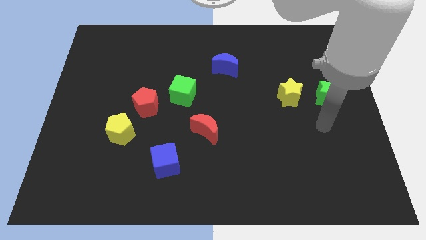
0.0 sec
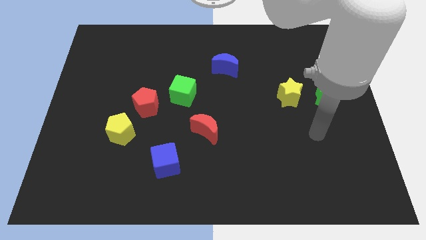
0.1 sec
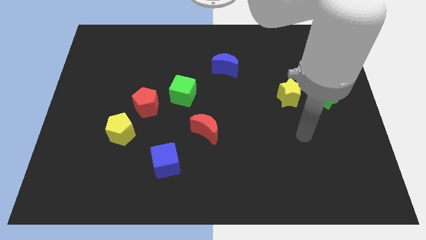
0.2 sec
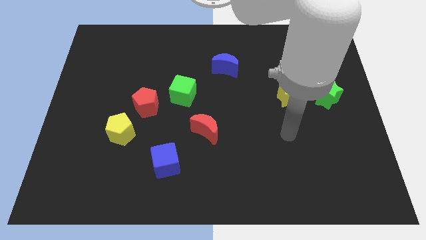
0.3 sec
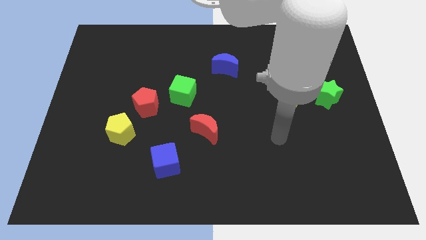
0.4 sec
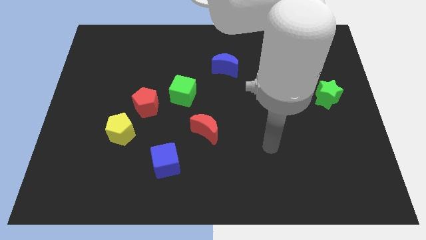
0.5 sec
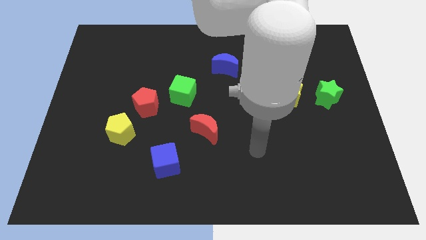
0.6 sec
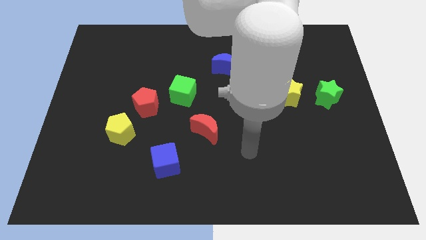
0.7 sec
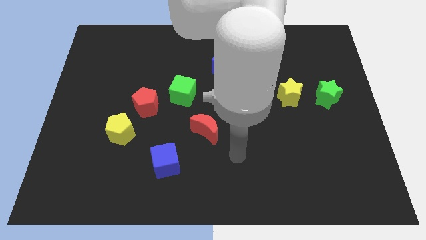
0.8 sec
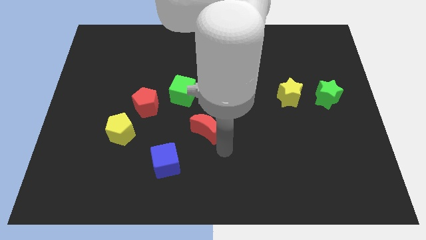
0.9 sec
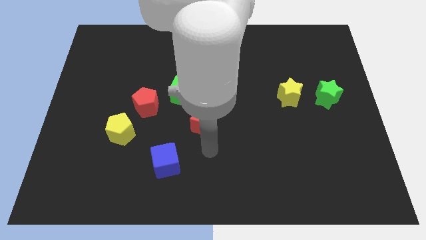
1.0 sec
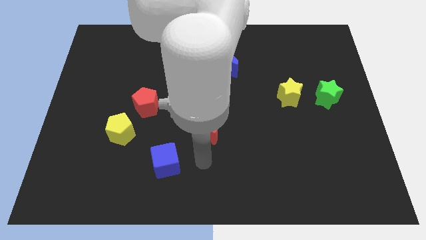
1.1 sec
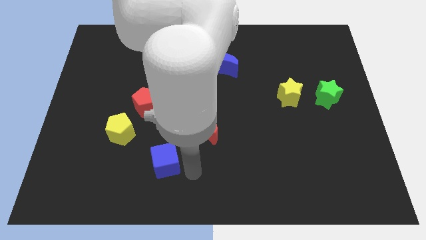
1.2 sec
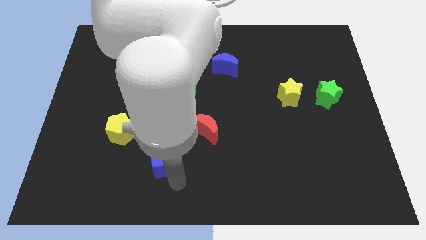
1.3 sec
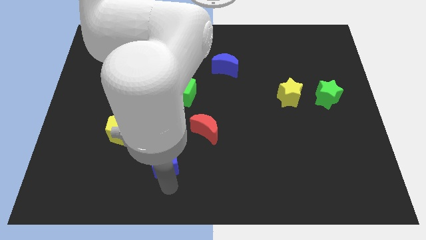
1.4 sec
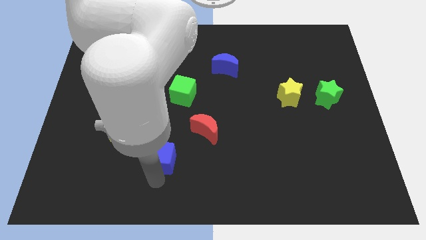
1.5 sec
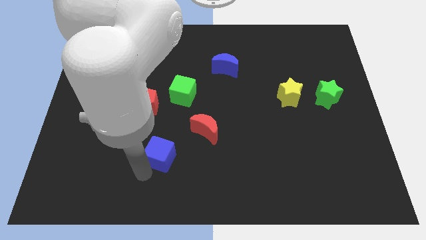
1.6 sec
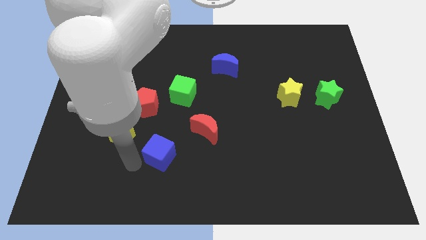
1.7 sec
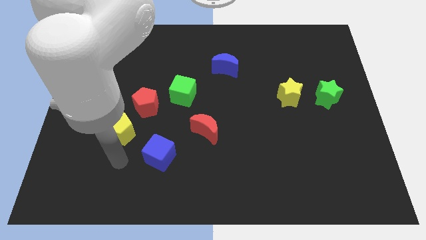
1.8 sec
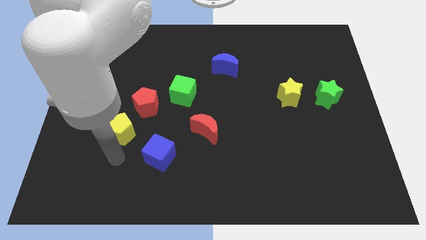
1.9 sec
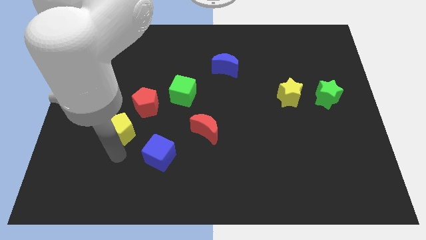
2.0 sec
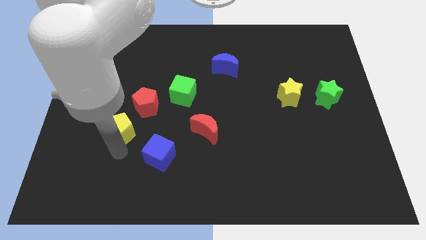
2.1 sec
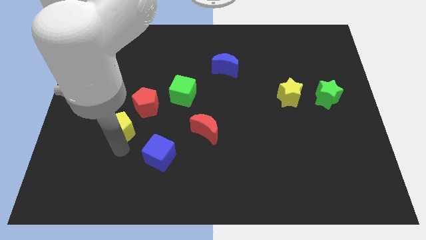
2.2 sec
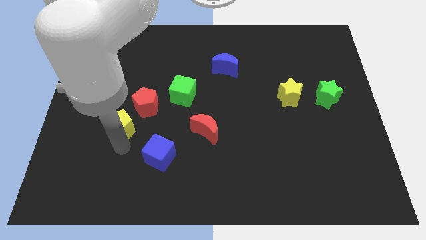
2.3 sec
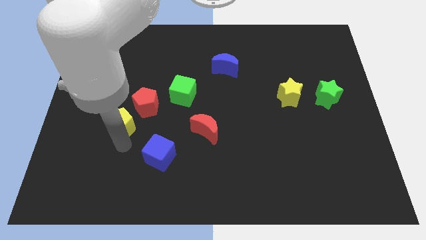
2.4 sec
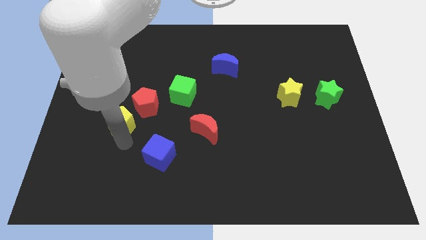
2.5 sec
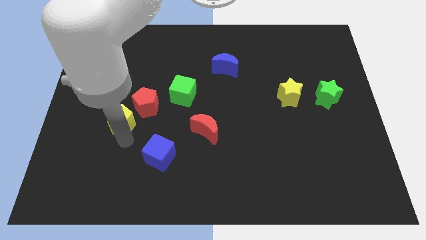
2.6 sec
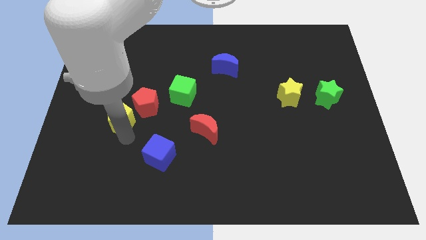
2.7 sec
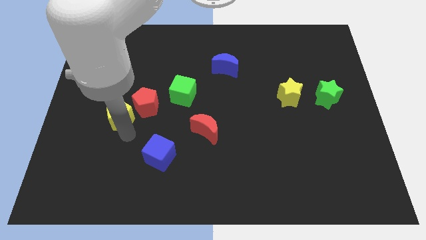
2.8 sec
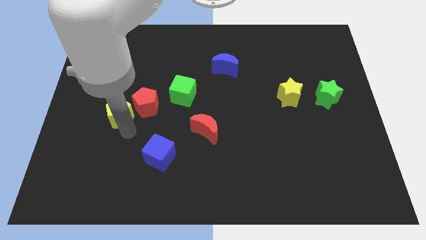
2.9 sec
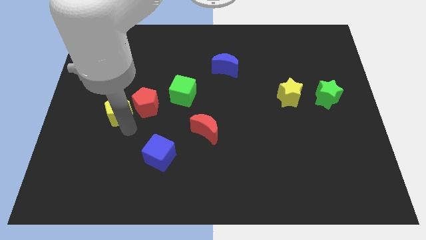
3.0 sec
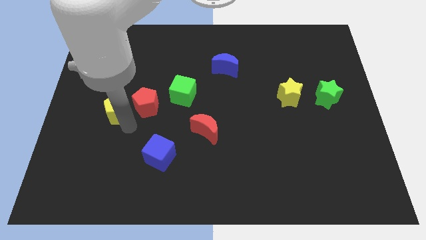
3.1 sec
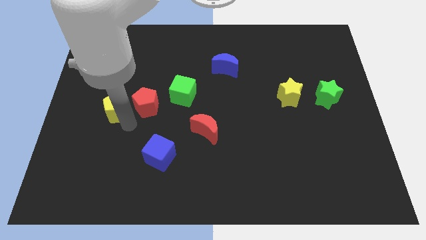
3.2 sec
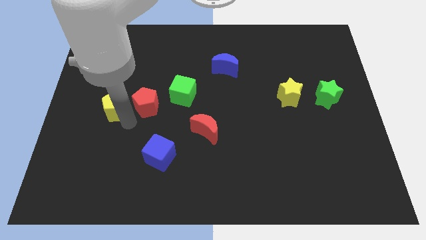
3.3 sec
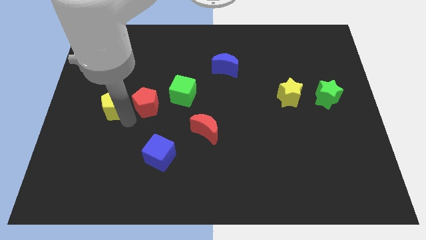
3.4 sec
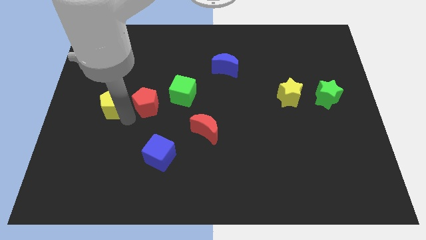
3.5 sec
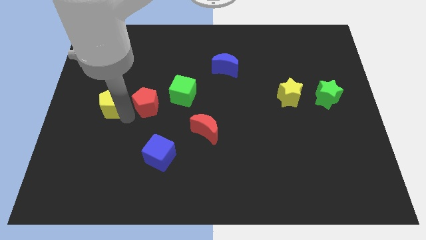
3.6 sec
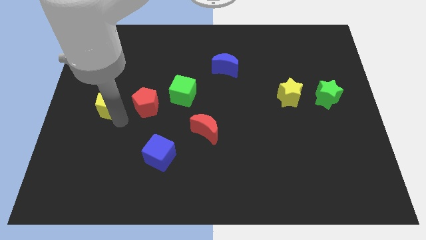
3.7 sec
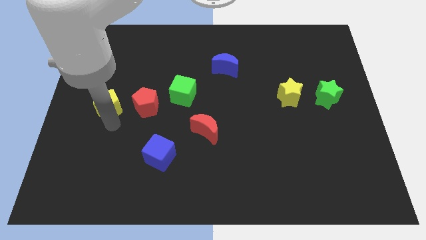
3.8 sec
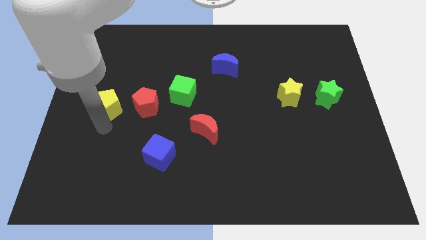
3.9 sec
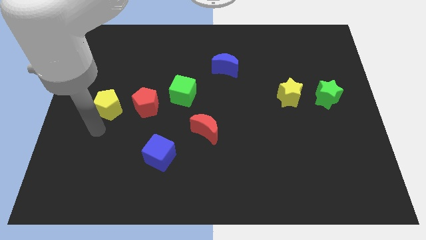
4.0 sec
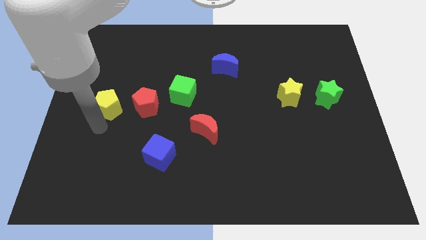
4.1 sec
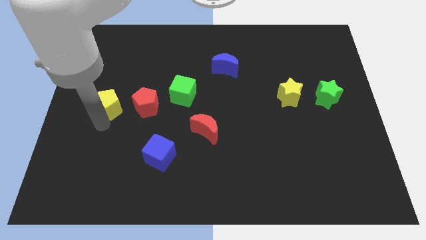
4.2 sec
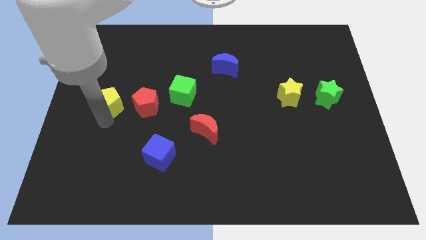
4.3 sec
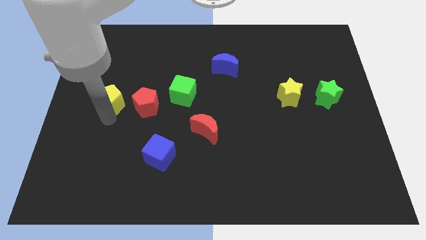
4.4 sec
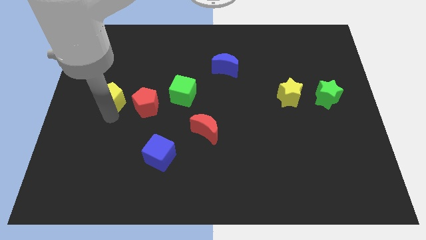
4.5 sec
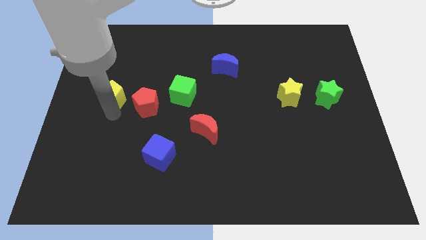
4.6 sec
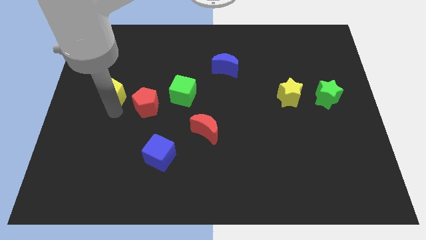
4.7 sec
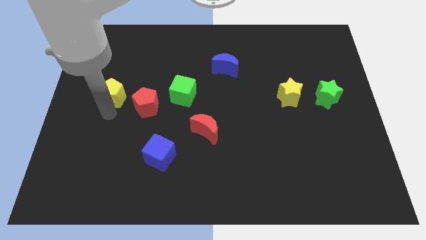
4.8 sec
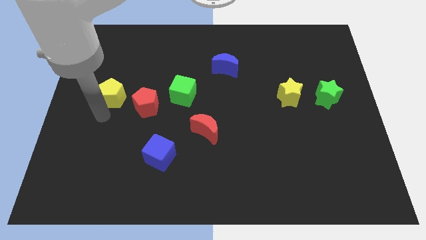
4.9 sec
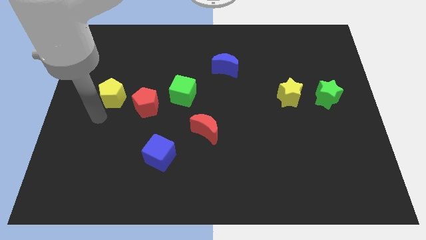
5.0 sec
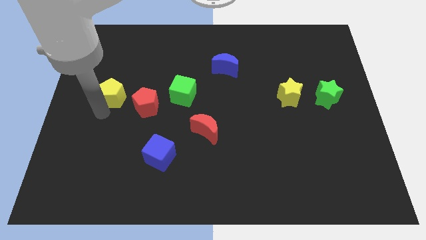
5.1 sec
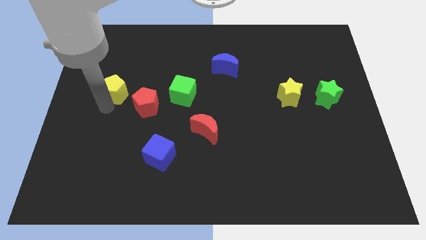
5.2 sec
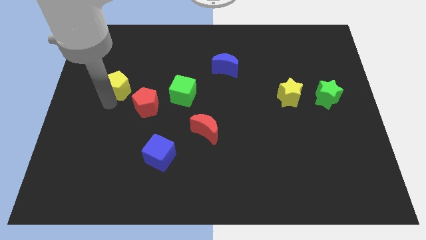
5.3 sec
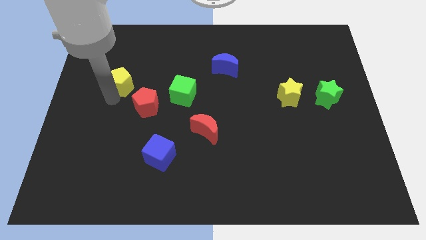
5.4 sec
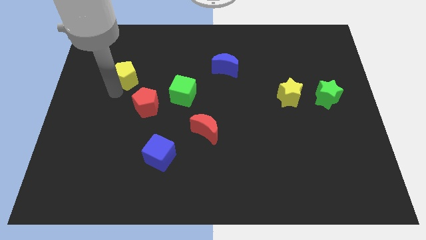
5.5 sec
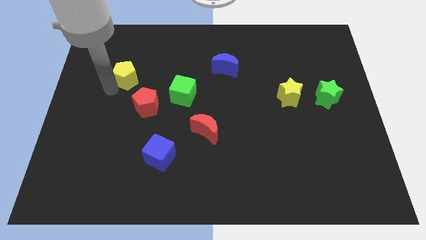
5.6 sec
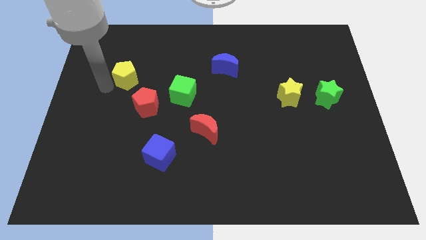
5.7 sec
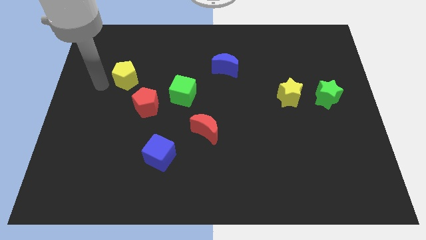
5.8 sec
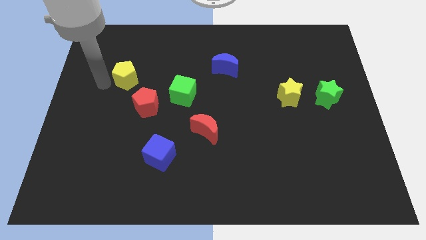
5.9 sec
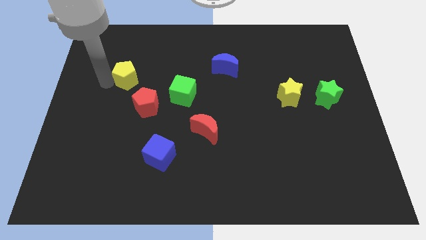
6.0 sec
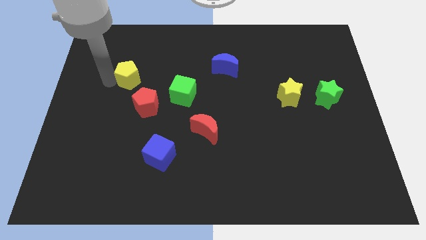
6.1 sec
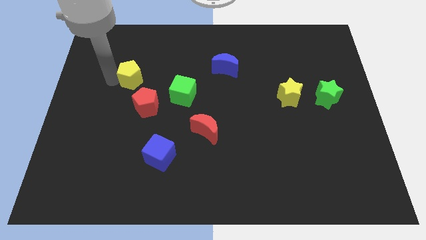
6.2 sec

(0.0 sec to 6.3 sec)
slide the yellow pentagon above the red pentagon

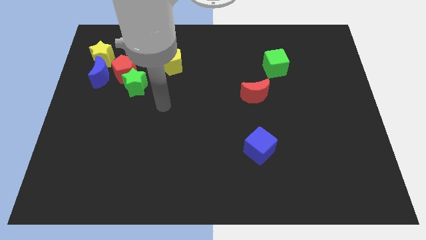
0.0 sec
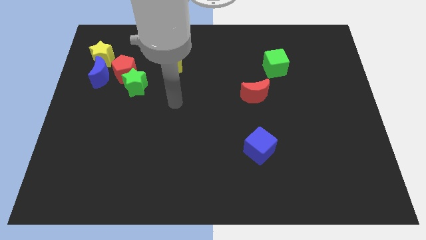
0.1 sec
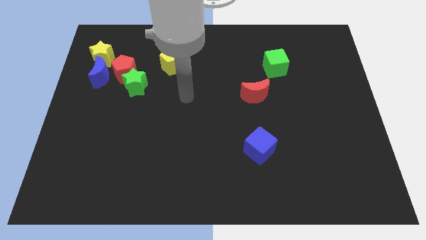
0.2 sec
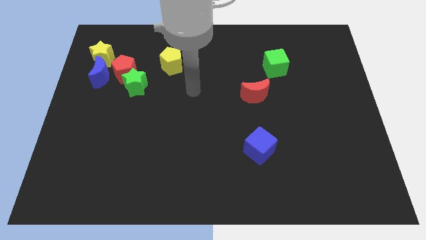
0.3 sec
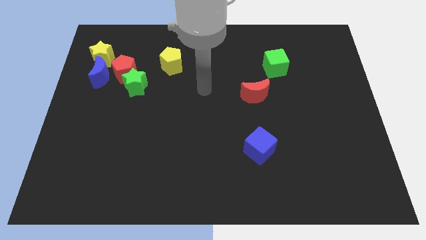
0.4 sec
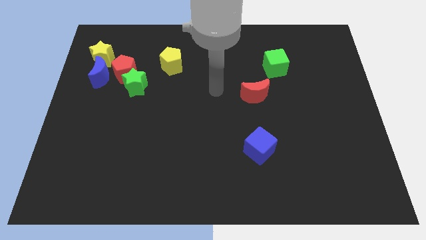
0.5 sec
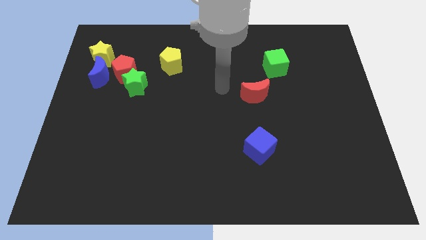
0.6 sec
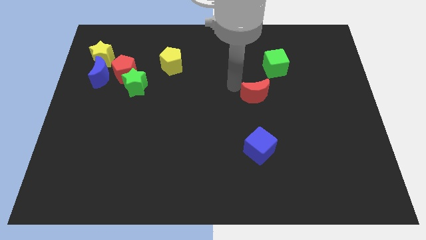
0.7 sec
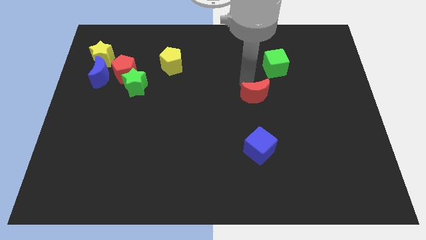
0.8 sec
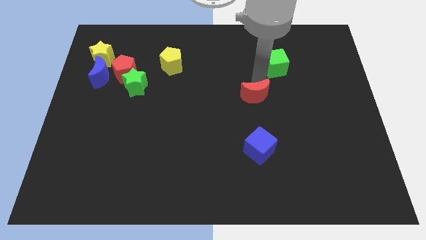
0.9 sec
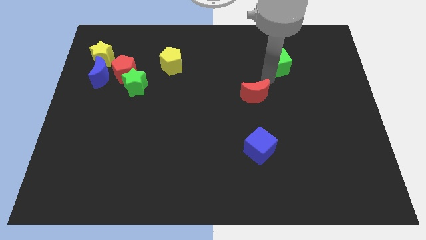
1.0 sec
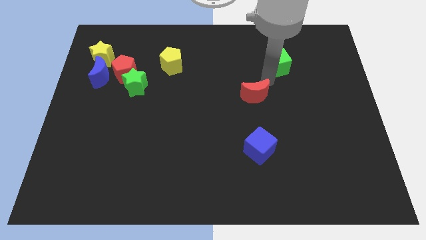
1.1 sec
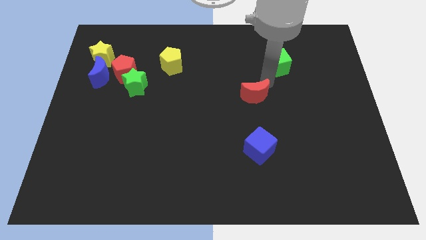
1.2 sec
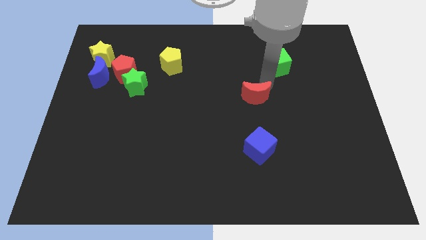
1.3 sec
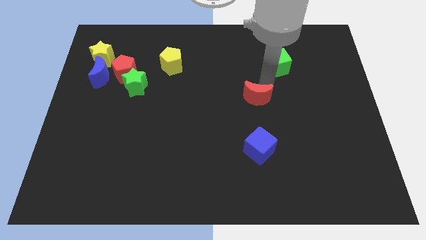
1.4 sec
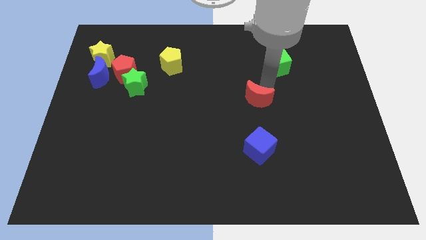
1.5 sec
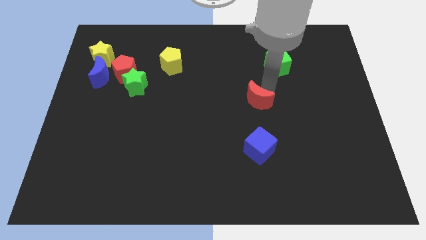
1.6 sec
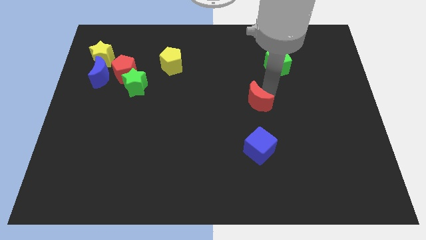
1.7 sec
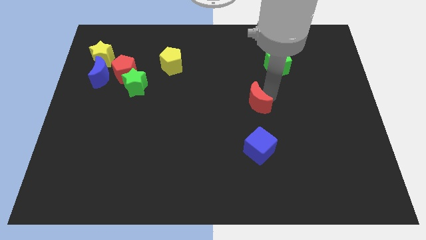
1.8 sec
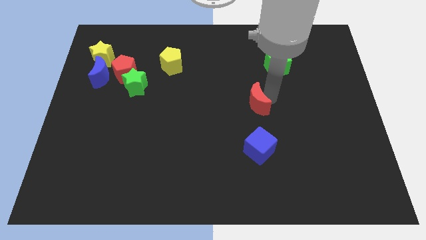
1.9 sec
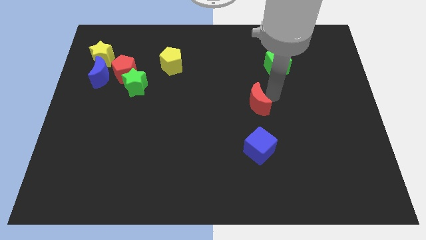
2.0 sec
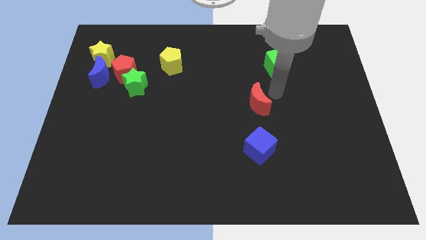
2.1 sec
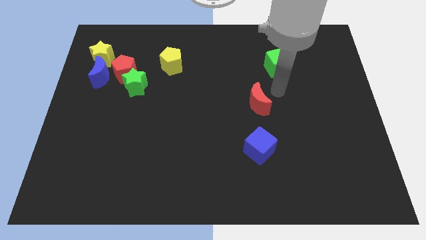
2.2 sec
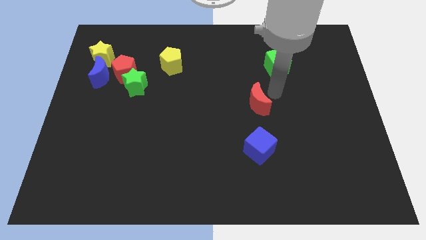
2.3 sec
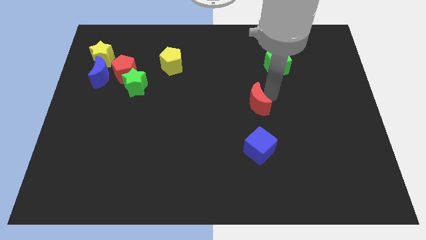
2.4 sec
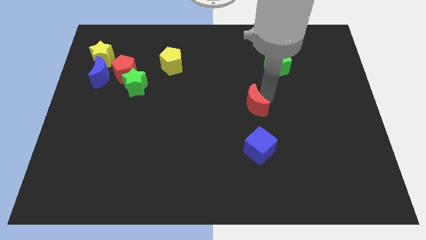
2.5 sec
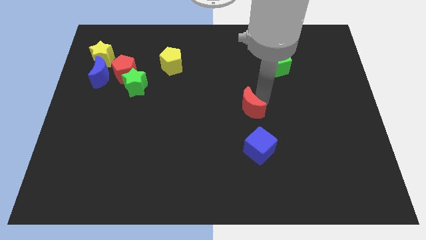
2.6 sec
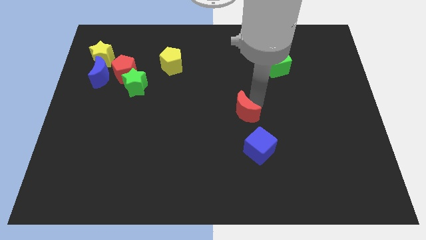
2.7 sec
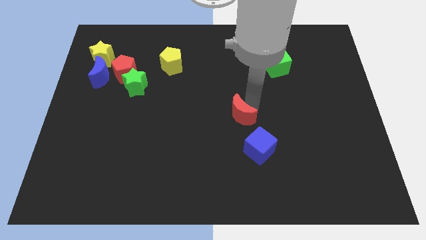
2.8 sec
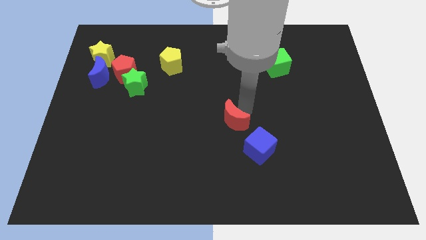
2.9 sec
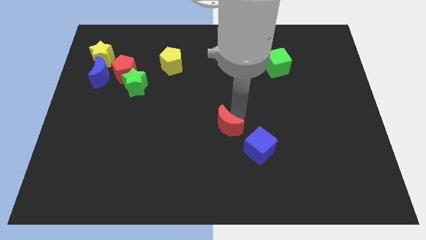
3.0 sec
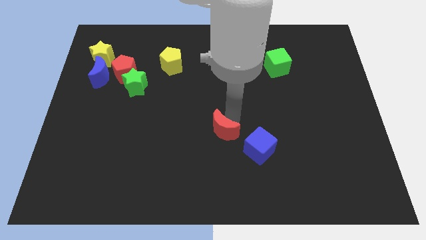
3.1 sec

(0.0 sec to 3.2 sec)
move the red moon left of the blue cube
